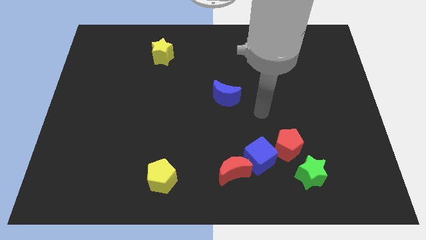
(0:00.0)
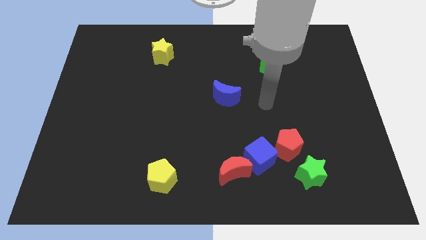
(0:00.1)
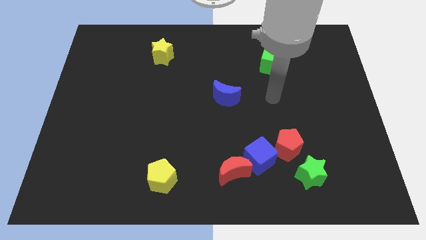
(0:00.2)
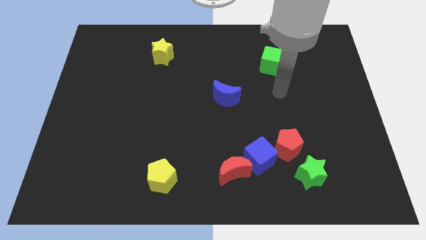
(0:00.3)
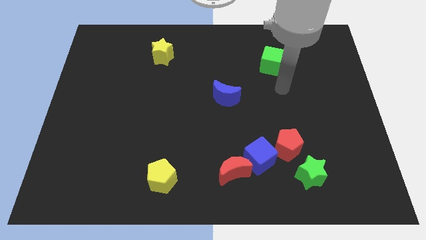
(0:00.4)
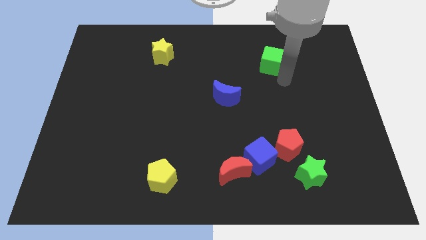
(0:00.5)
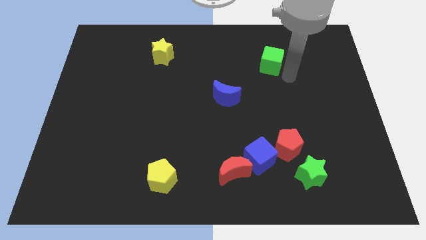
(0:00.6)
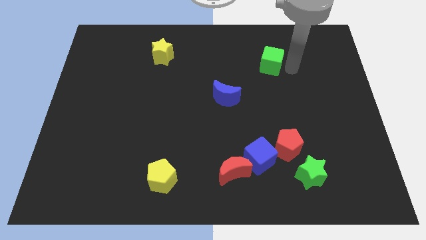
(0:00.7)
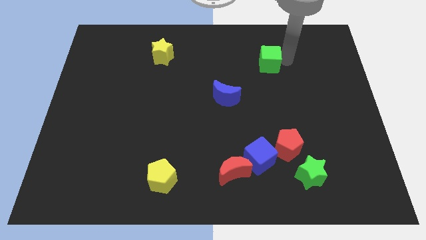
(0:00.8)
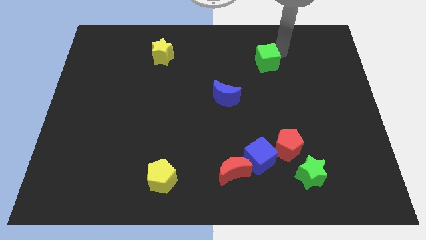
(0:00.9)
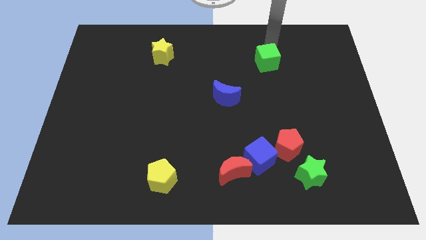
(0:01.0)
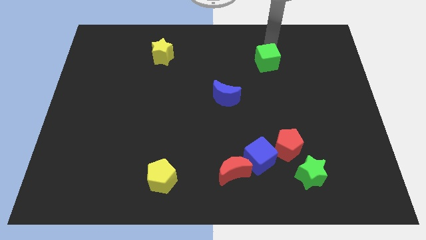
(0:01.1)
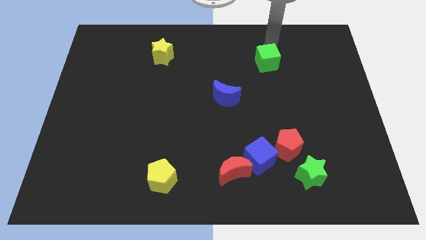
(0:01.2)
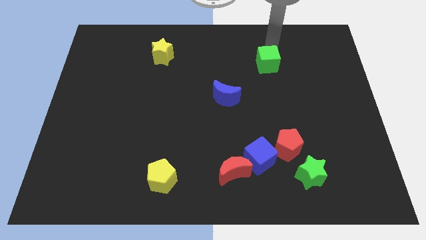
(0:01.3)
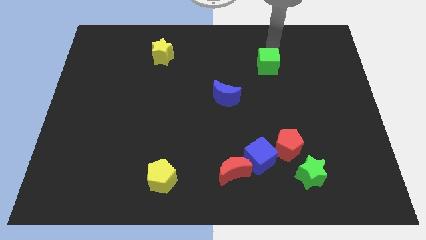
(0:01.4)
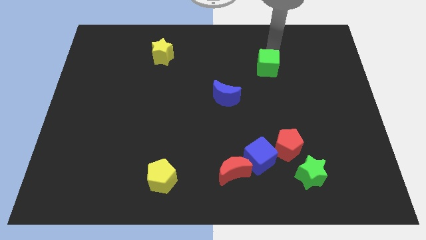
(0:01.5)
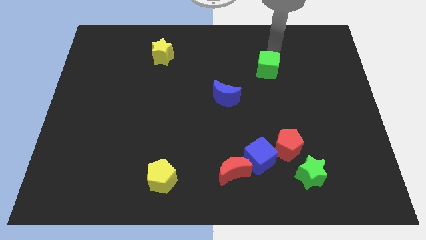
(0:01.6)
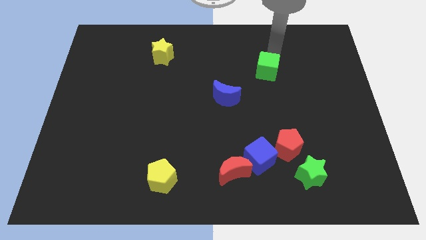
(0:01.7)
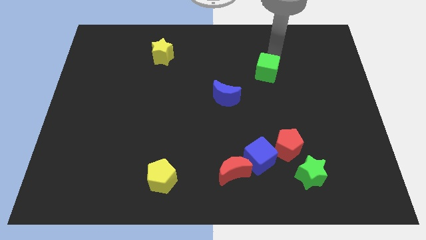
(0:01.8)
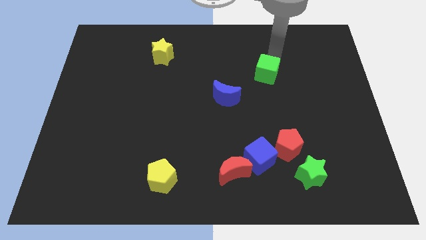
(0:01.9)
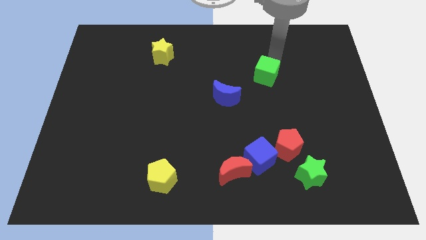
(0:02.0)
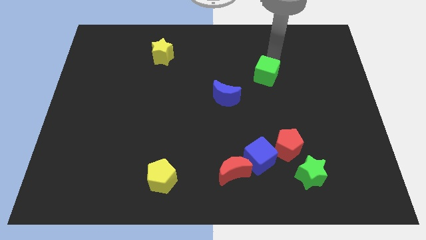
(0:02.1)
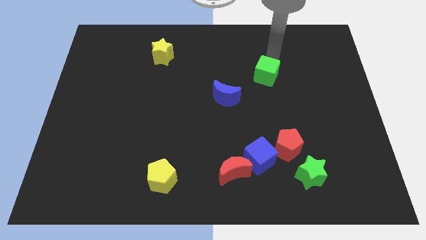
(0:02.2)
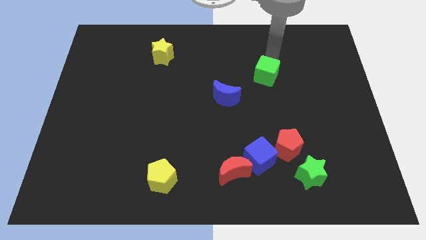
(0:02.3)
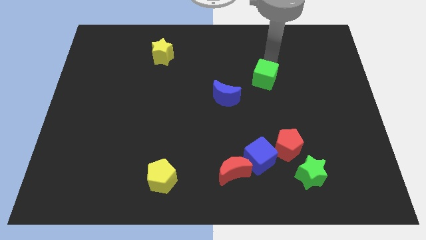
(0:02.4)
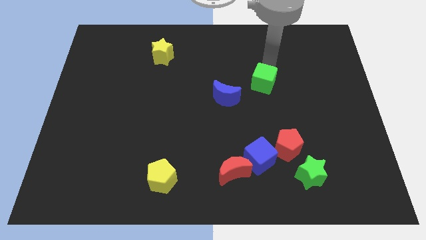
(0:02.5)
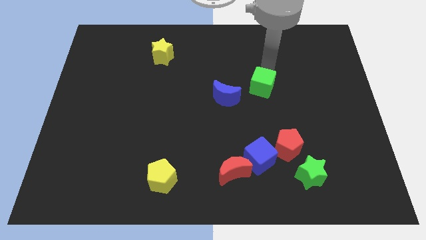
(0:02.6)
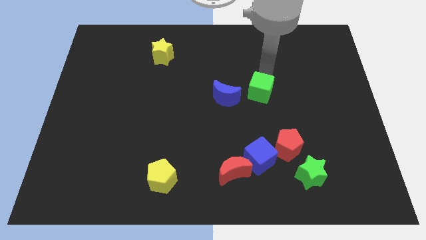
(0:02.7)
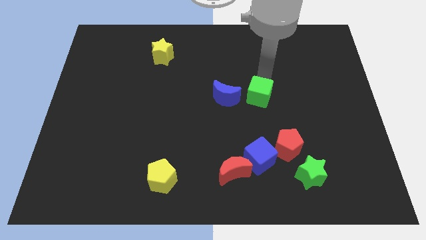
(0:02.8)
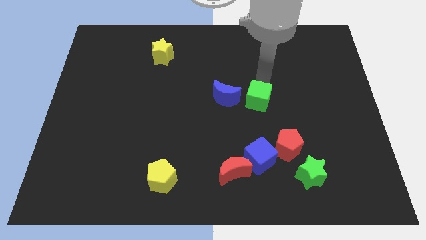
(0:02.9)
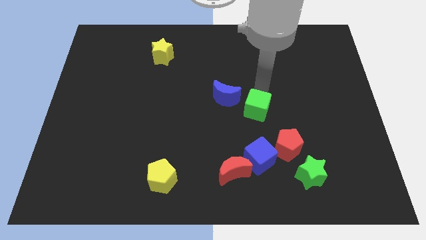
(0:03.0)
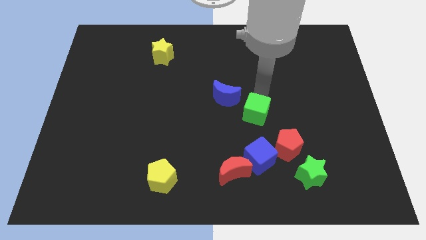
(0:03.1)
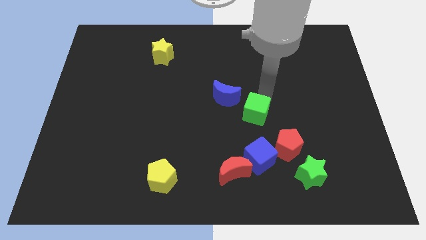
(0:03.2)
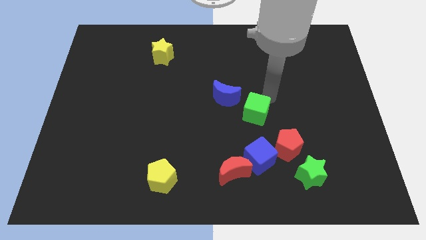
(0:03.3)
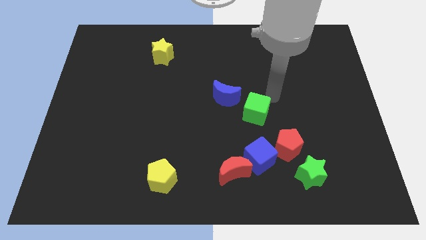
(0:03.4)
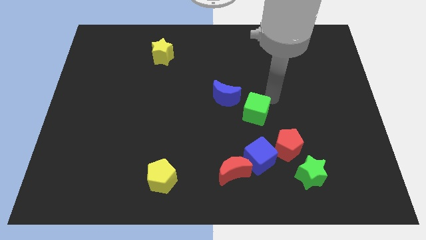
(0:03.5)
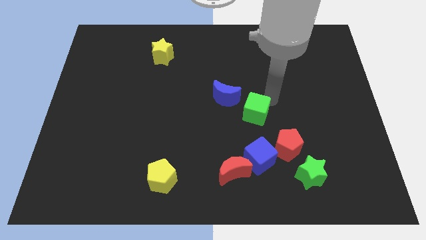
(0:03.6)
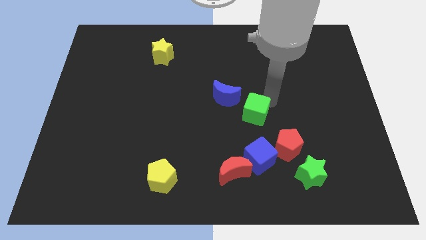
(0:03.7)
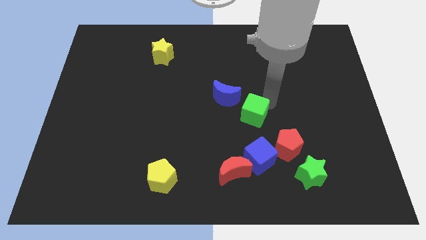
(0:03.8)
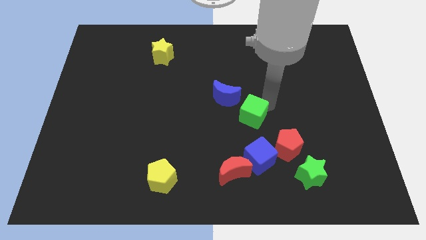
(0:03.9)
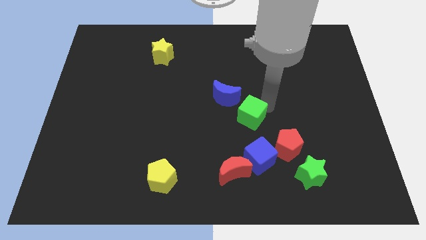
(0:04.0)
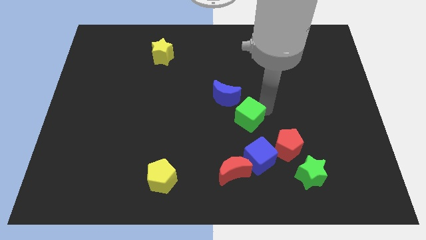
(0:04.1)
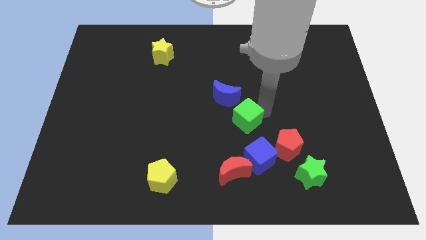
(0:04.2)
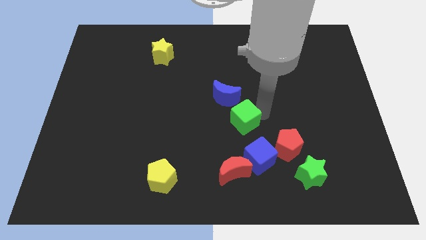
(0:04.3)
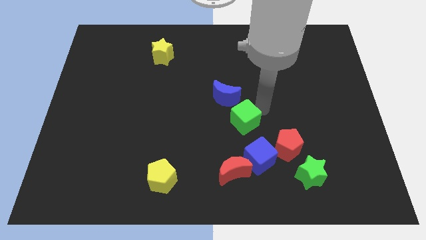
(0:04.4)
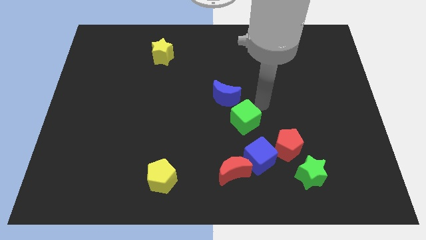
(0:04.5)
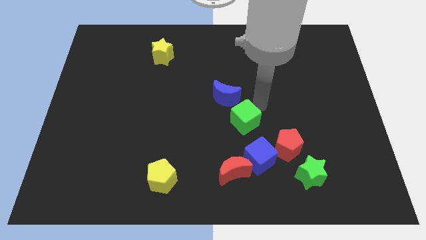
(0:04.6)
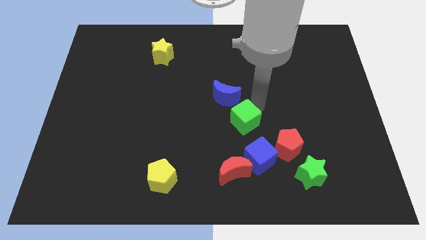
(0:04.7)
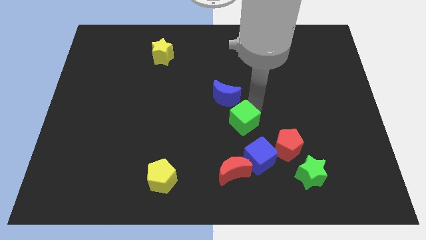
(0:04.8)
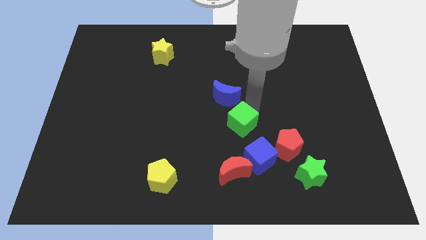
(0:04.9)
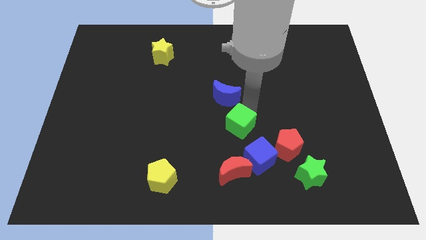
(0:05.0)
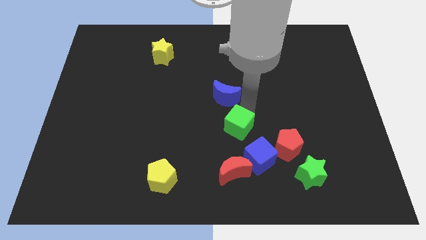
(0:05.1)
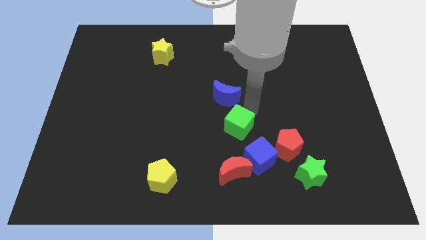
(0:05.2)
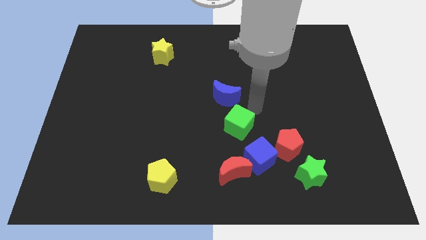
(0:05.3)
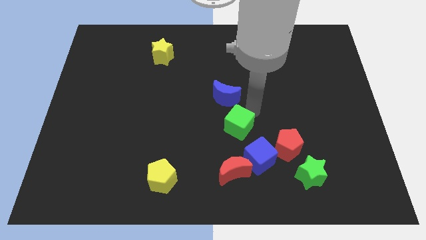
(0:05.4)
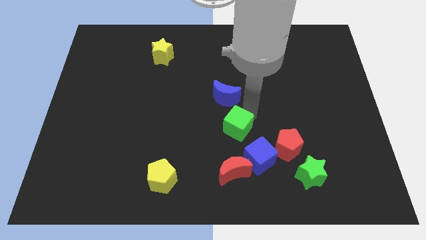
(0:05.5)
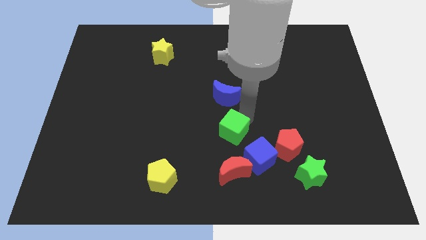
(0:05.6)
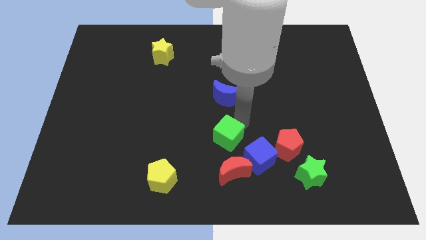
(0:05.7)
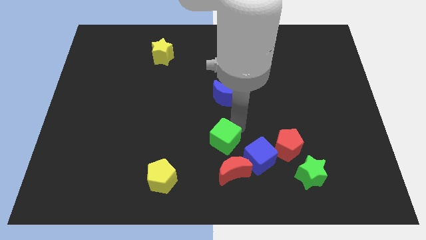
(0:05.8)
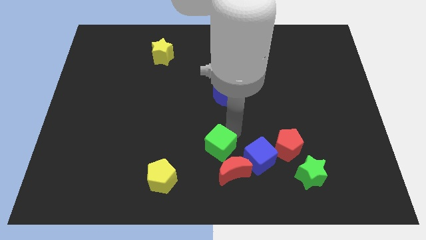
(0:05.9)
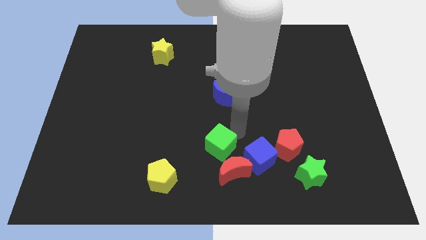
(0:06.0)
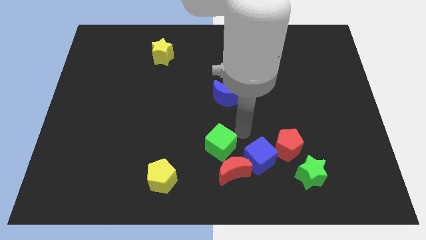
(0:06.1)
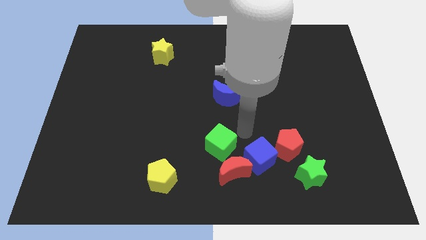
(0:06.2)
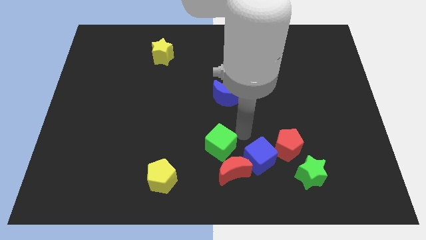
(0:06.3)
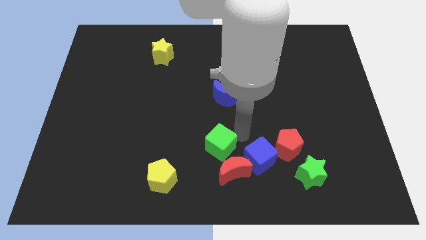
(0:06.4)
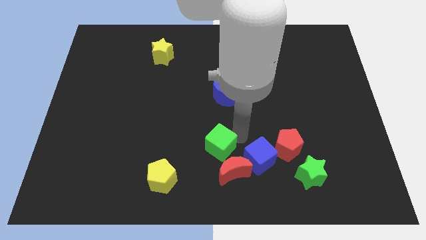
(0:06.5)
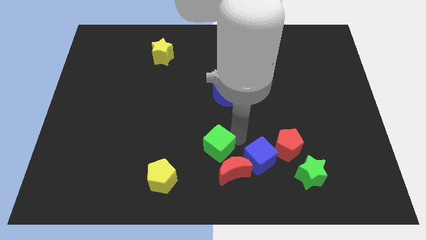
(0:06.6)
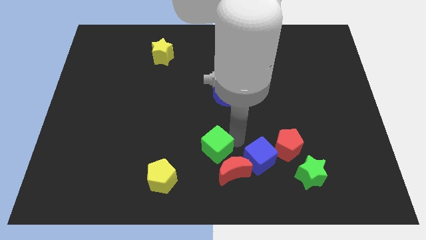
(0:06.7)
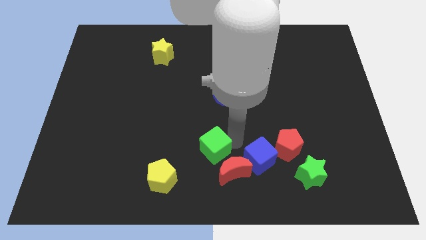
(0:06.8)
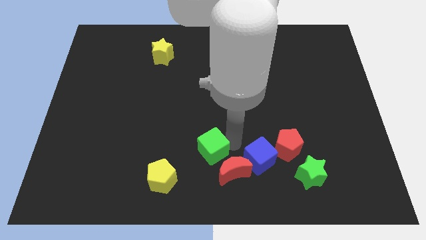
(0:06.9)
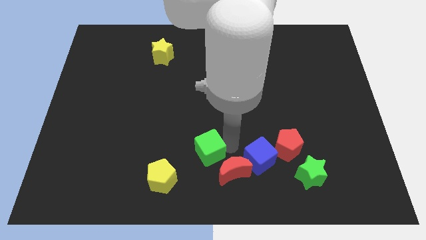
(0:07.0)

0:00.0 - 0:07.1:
slide the green cube left of the red moon

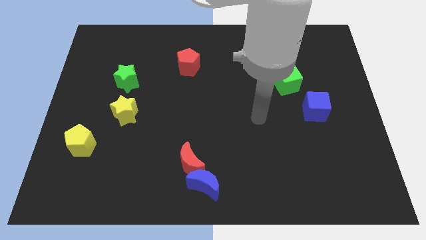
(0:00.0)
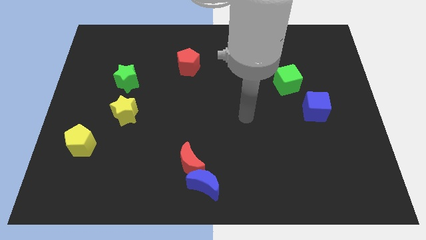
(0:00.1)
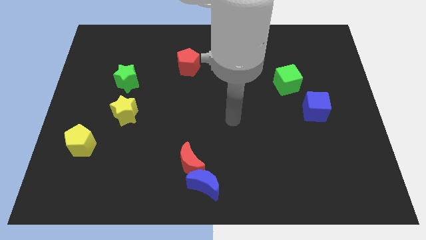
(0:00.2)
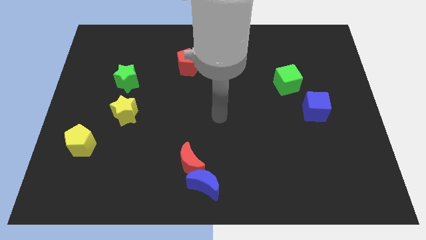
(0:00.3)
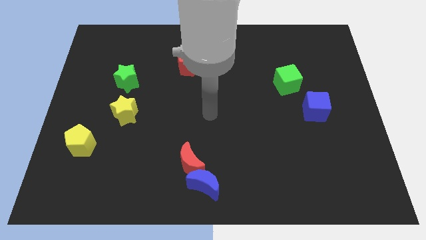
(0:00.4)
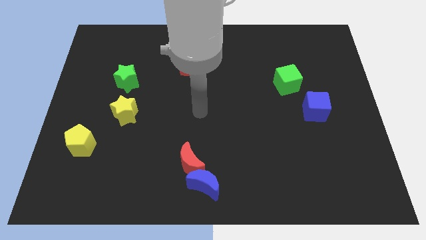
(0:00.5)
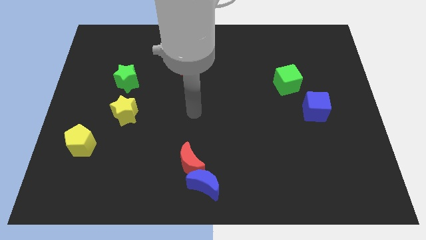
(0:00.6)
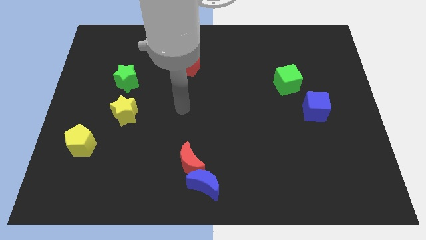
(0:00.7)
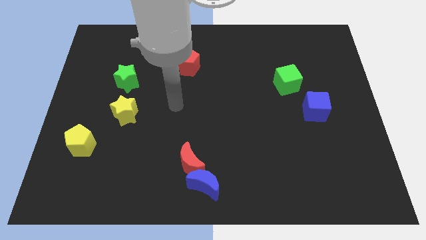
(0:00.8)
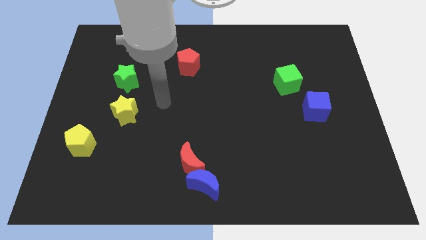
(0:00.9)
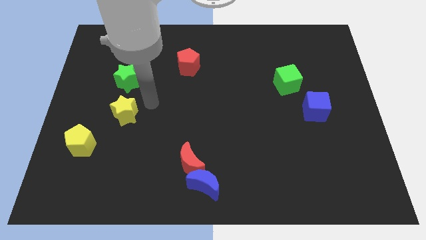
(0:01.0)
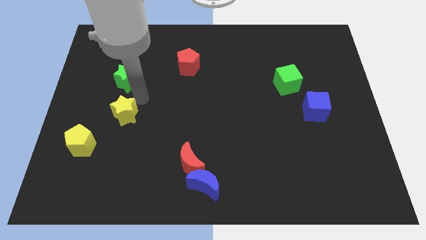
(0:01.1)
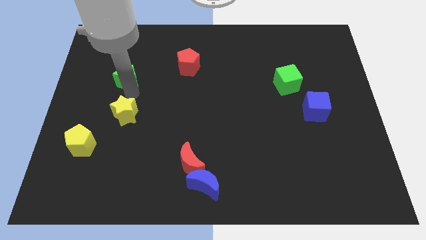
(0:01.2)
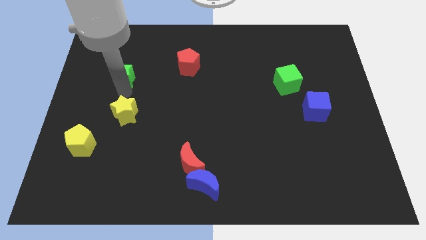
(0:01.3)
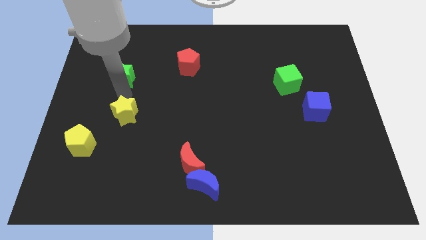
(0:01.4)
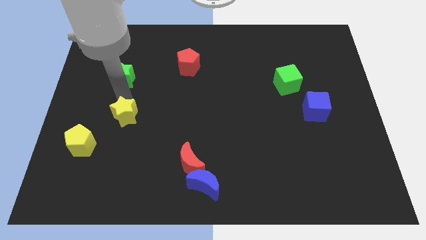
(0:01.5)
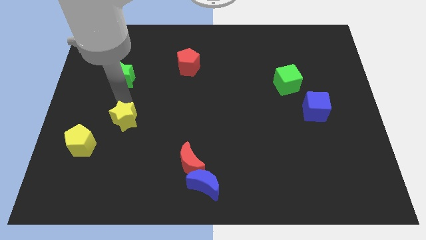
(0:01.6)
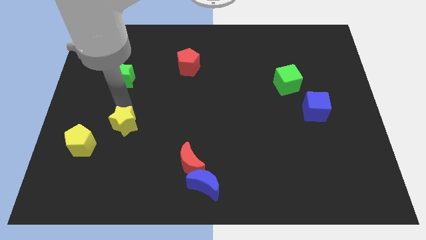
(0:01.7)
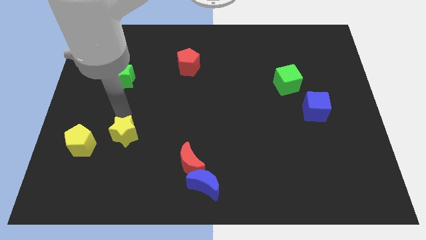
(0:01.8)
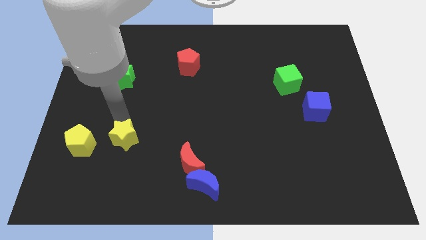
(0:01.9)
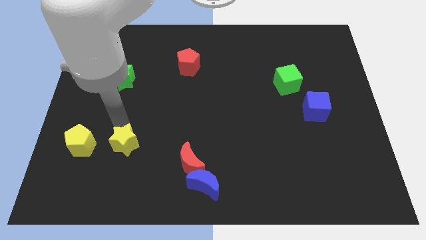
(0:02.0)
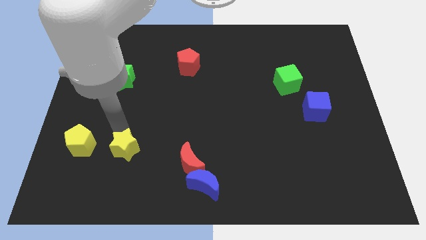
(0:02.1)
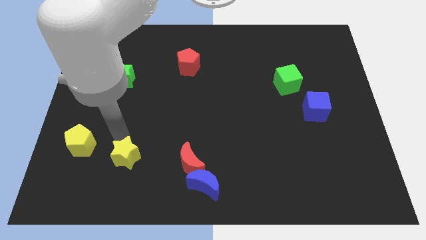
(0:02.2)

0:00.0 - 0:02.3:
put the yellow star just left of the red moon
